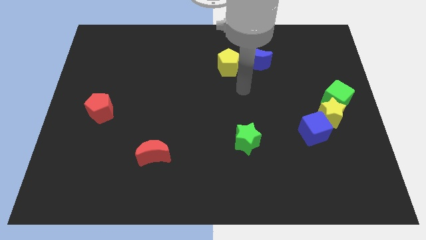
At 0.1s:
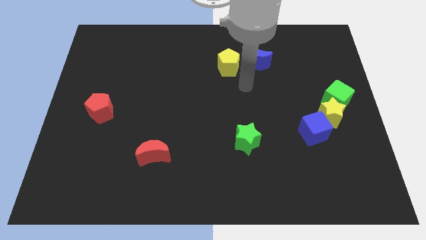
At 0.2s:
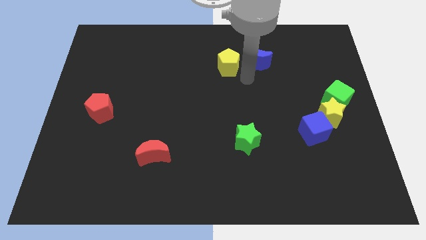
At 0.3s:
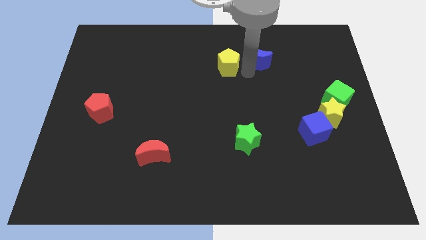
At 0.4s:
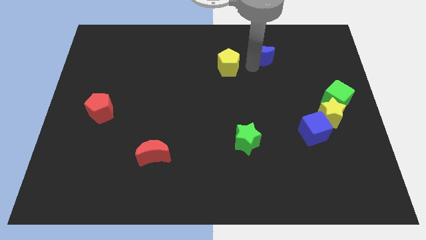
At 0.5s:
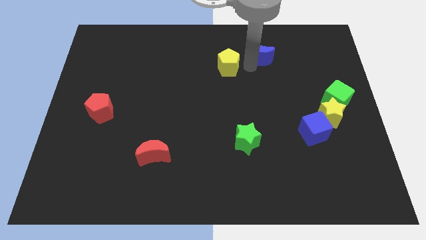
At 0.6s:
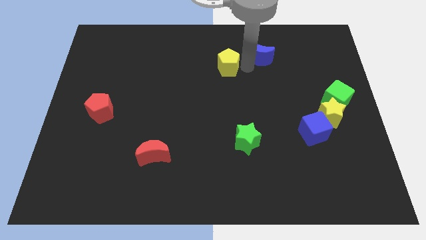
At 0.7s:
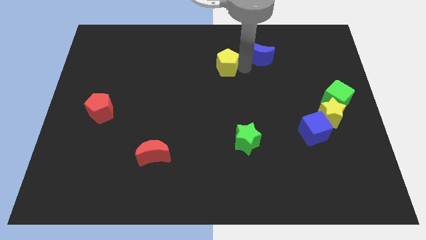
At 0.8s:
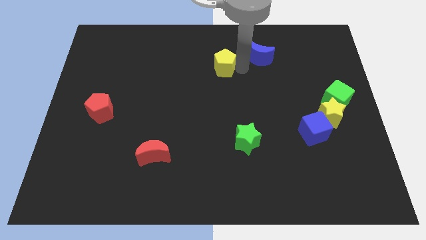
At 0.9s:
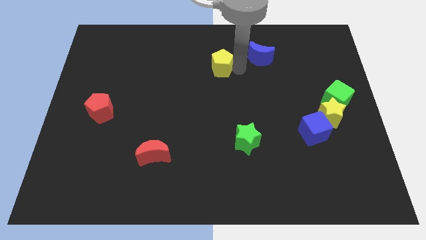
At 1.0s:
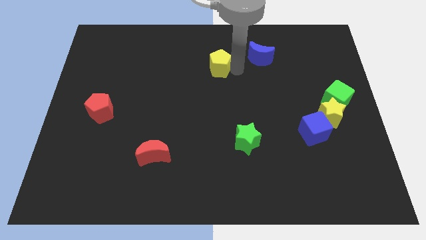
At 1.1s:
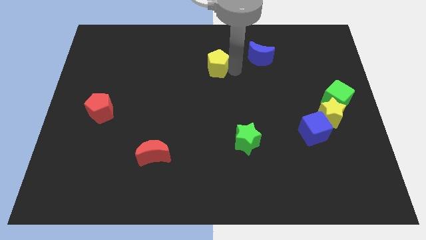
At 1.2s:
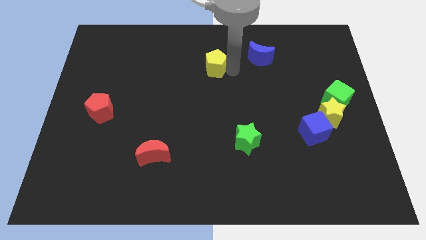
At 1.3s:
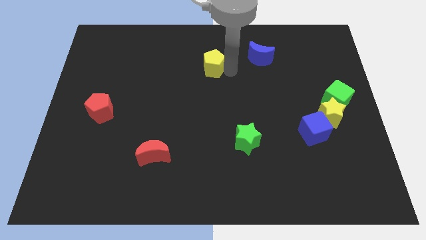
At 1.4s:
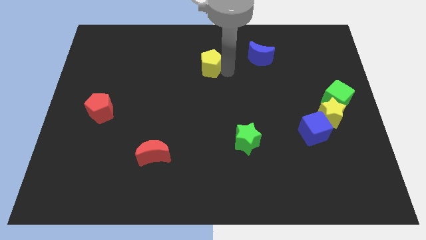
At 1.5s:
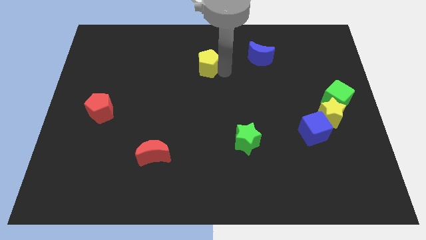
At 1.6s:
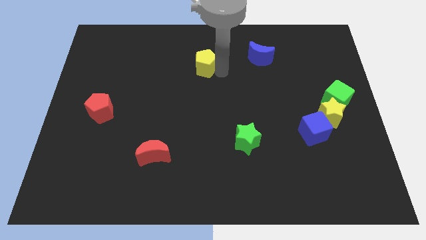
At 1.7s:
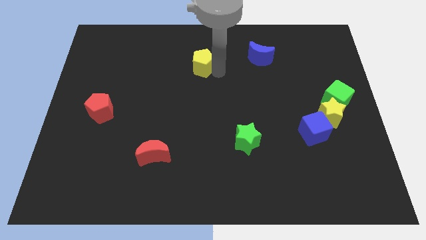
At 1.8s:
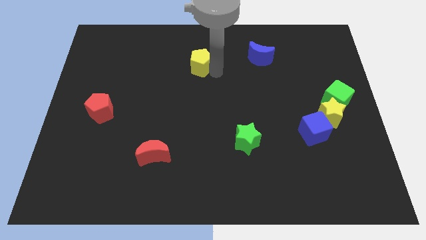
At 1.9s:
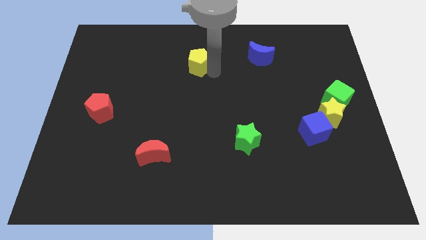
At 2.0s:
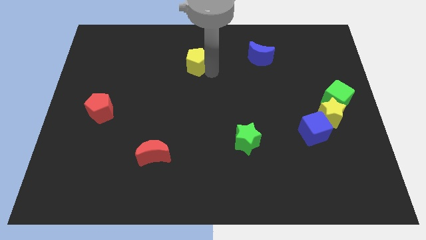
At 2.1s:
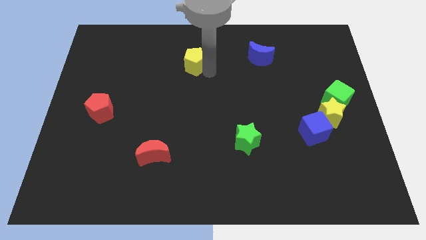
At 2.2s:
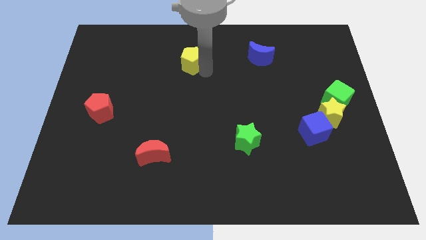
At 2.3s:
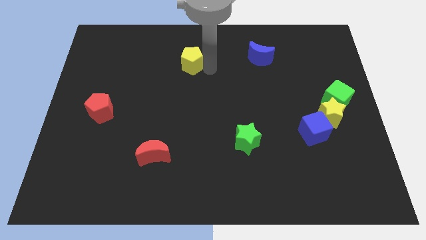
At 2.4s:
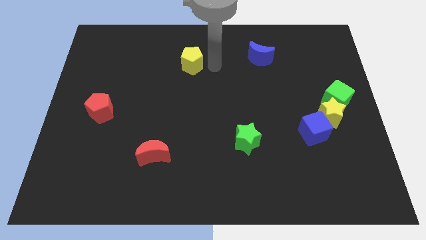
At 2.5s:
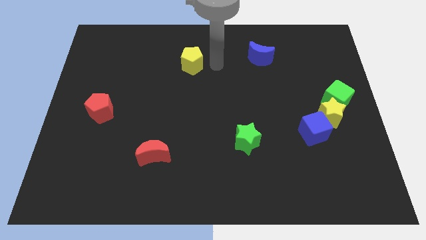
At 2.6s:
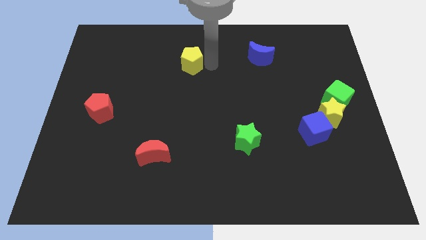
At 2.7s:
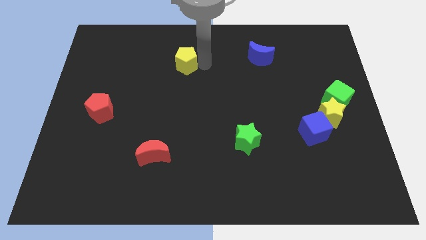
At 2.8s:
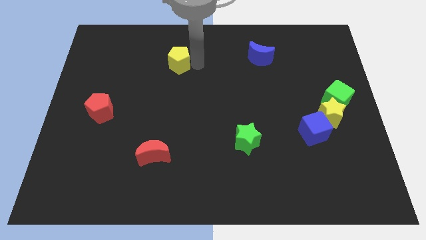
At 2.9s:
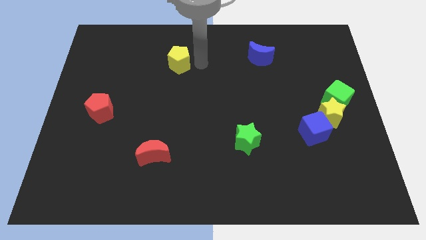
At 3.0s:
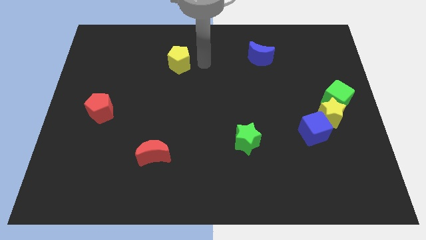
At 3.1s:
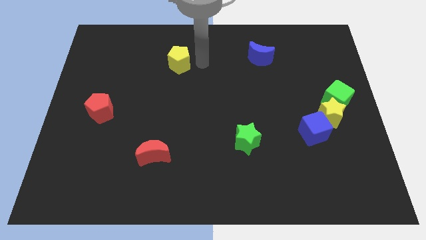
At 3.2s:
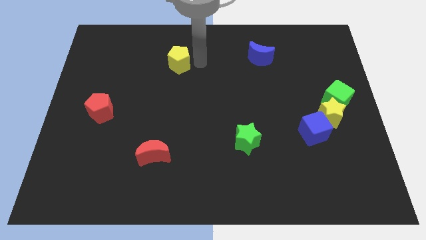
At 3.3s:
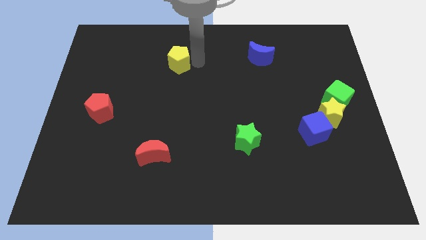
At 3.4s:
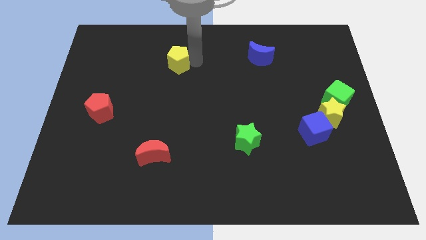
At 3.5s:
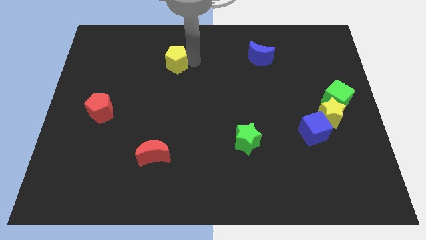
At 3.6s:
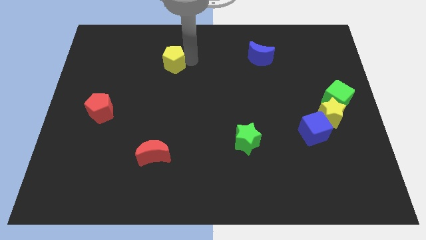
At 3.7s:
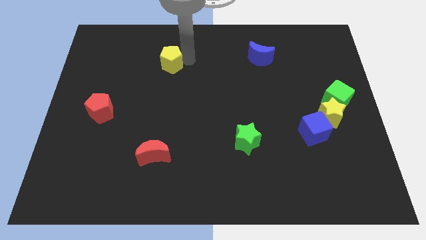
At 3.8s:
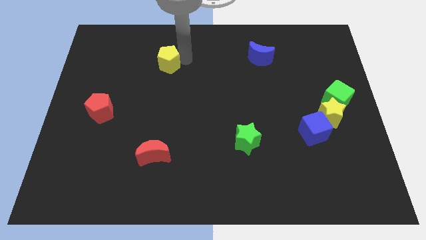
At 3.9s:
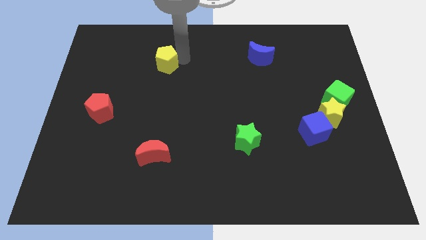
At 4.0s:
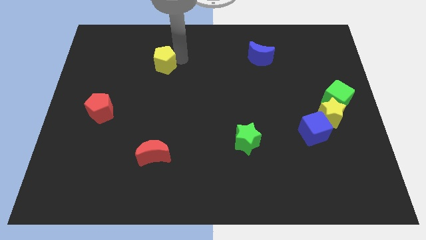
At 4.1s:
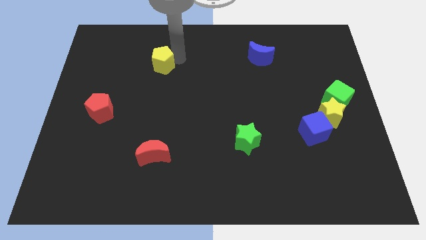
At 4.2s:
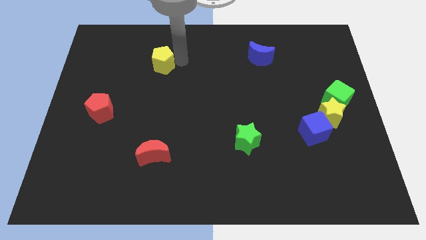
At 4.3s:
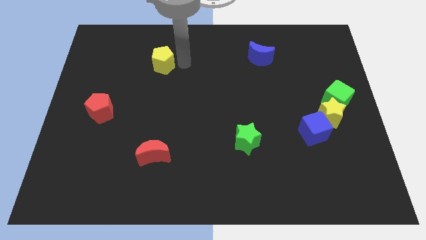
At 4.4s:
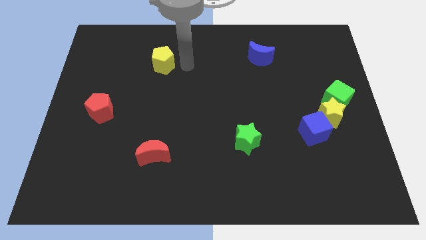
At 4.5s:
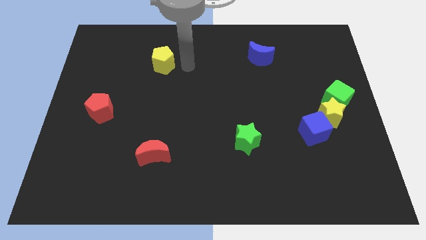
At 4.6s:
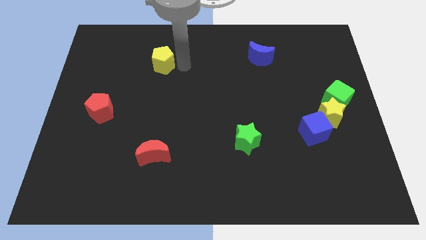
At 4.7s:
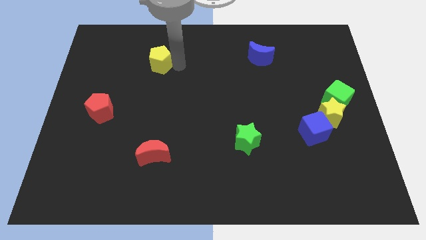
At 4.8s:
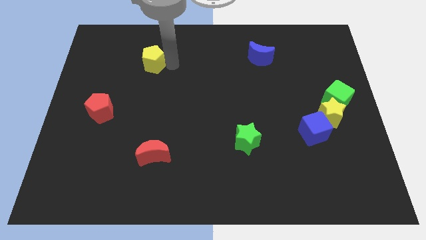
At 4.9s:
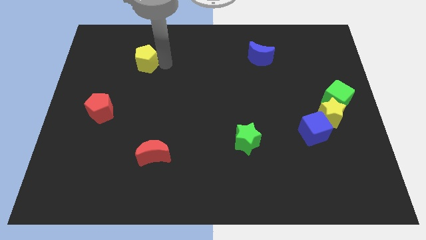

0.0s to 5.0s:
slide the yellow pentagon to the left

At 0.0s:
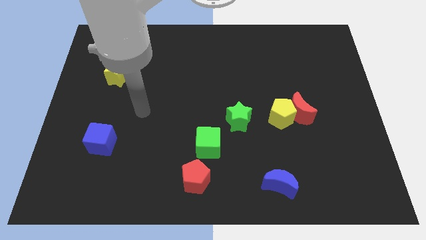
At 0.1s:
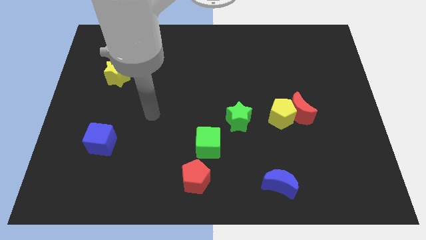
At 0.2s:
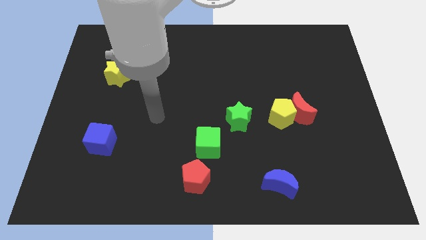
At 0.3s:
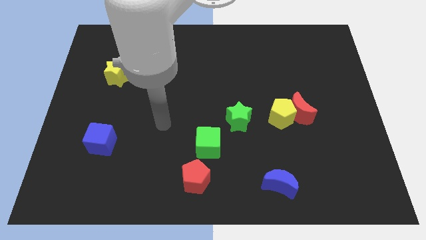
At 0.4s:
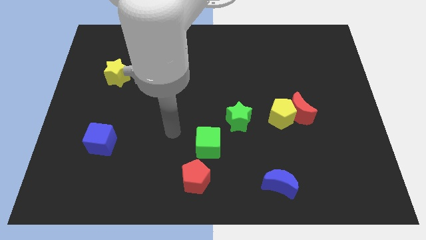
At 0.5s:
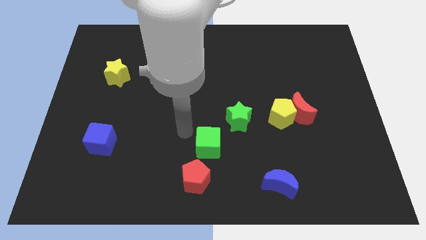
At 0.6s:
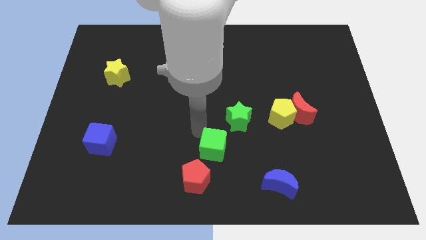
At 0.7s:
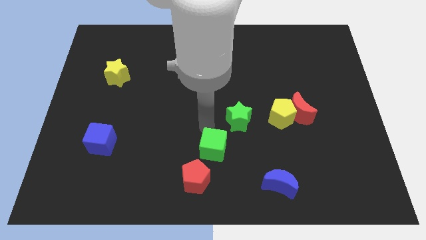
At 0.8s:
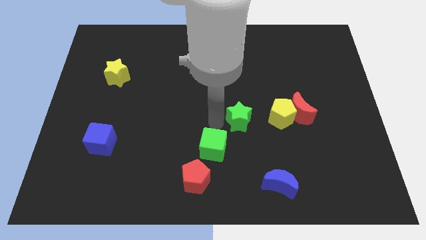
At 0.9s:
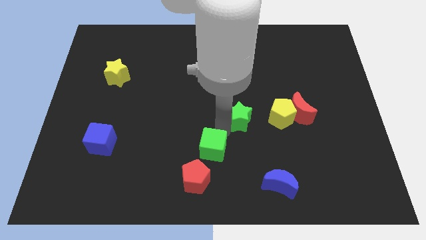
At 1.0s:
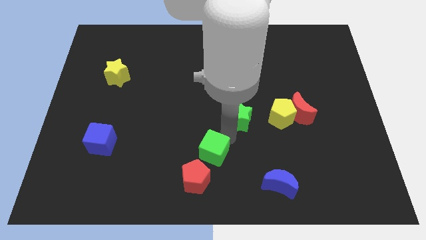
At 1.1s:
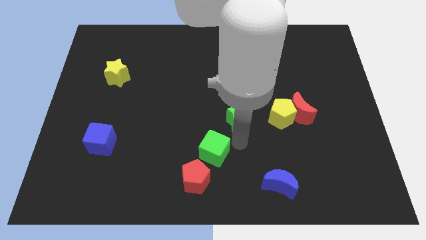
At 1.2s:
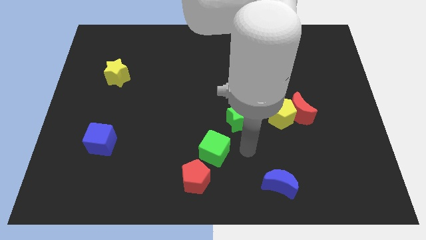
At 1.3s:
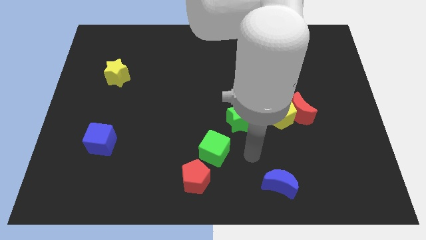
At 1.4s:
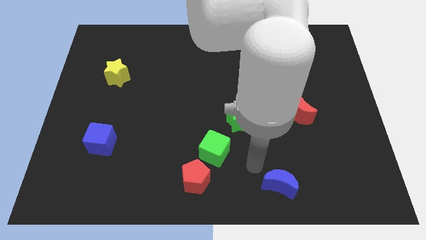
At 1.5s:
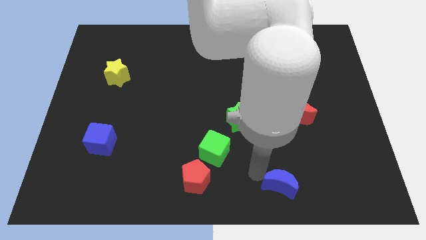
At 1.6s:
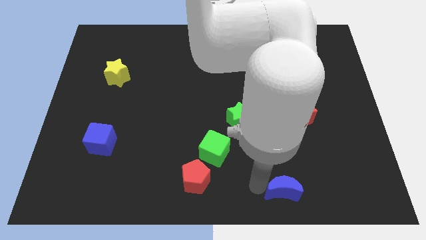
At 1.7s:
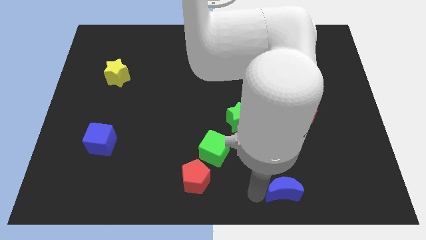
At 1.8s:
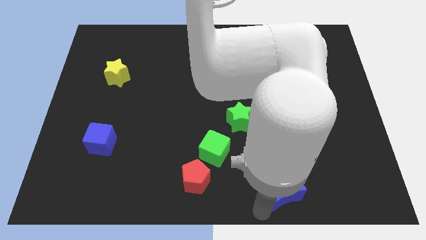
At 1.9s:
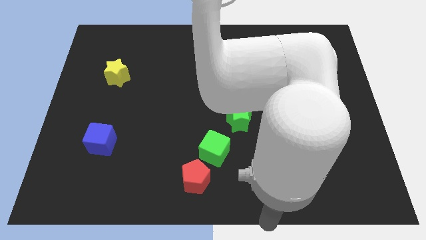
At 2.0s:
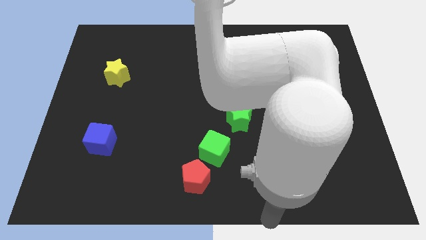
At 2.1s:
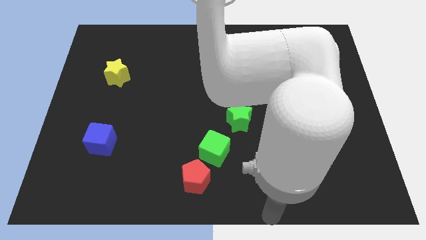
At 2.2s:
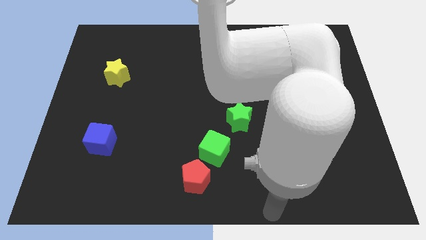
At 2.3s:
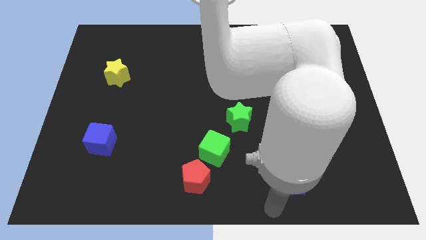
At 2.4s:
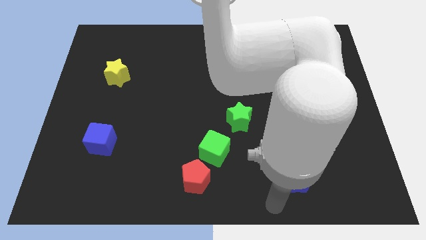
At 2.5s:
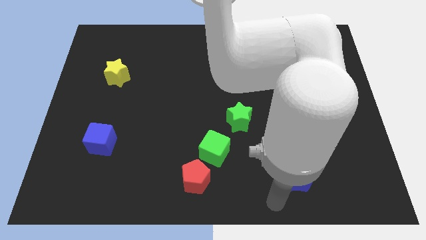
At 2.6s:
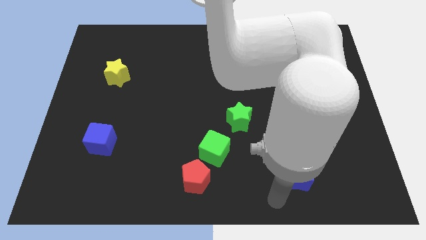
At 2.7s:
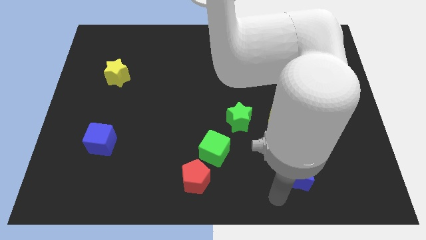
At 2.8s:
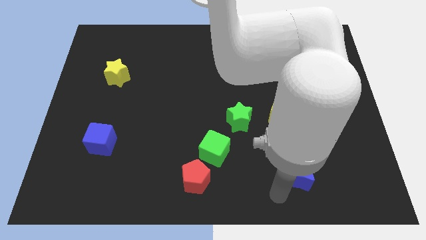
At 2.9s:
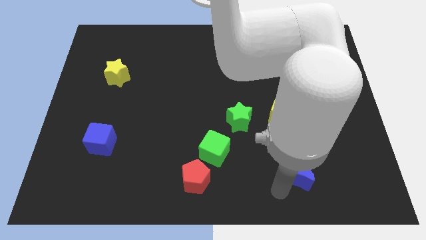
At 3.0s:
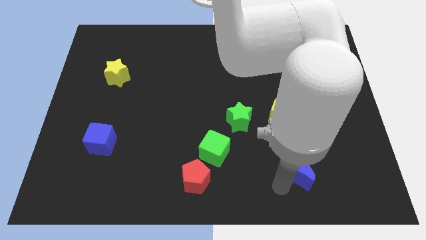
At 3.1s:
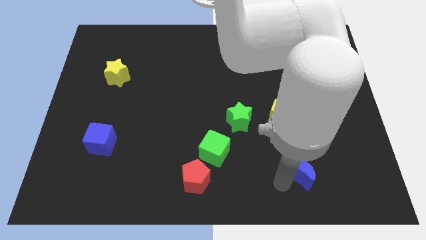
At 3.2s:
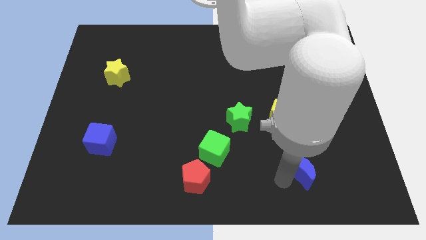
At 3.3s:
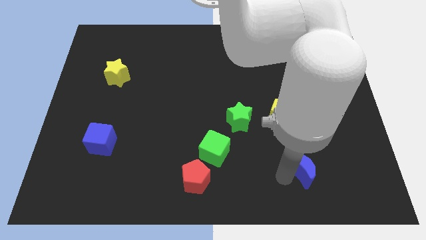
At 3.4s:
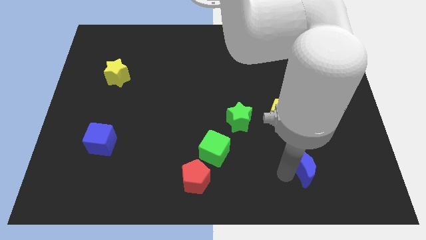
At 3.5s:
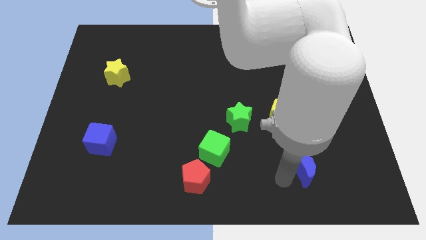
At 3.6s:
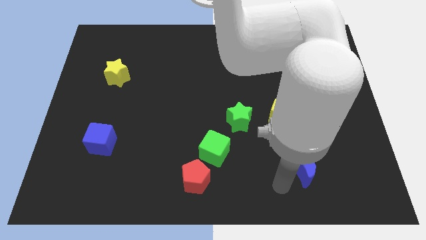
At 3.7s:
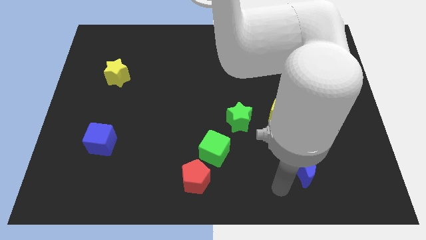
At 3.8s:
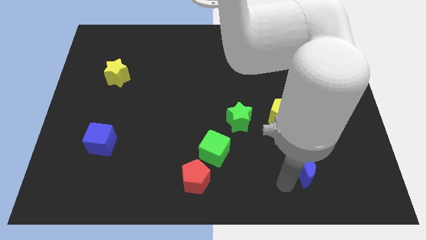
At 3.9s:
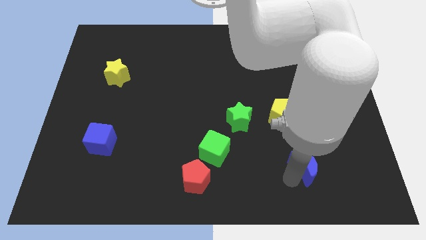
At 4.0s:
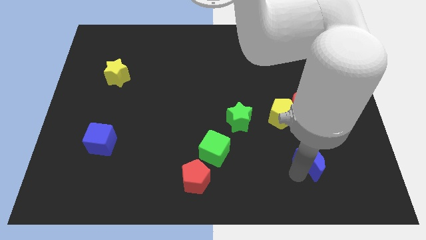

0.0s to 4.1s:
slightly push the blue moon upwards and right diagonally
